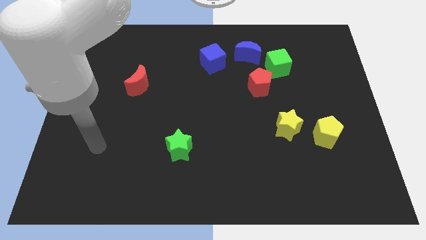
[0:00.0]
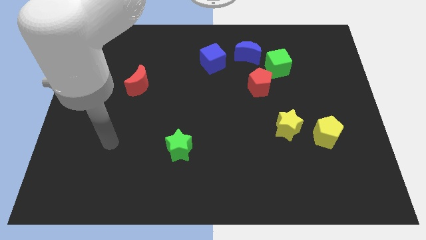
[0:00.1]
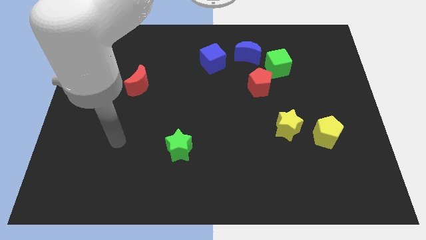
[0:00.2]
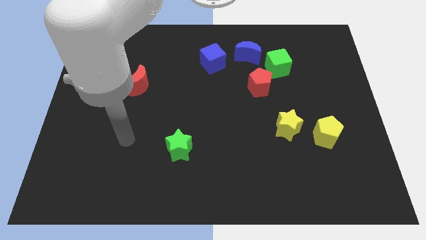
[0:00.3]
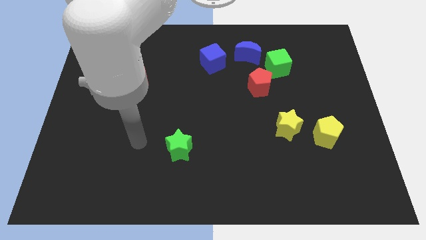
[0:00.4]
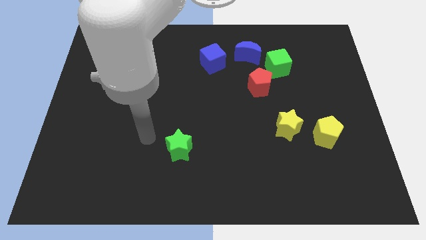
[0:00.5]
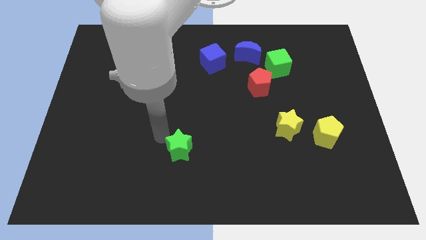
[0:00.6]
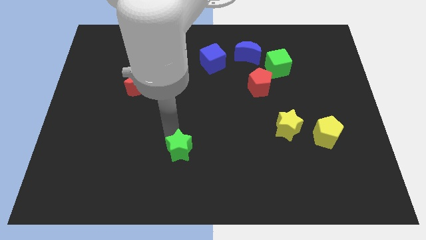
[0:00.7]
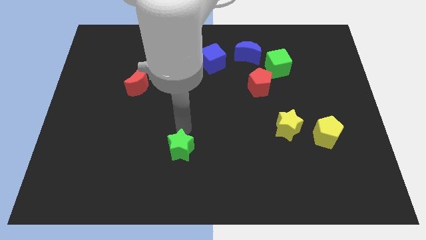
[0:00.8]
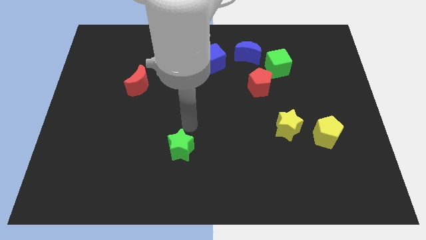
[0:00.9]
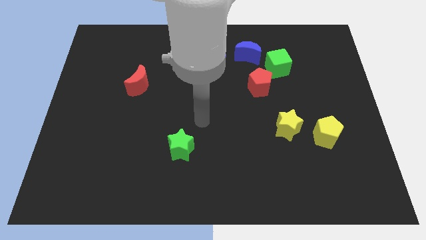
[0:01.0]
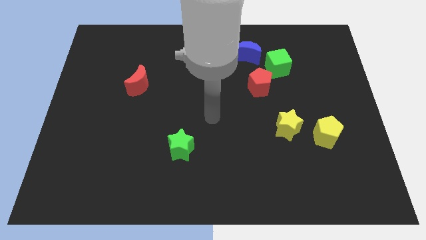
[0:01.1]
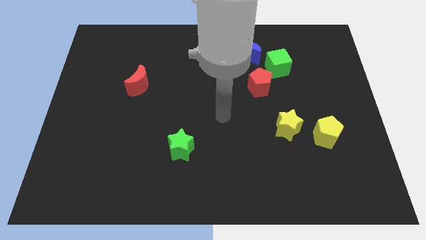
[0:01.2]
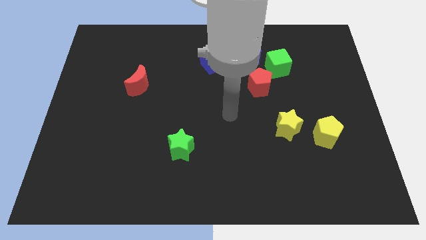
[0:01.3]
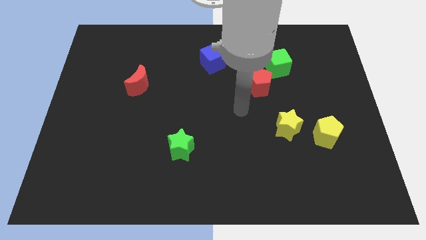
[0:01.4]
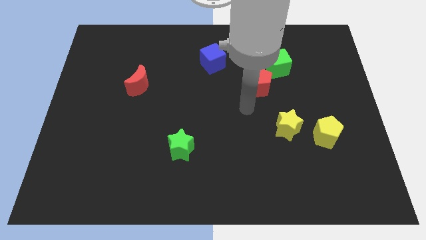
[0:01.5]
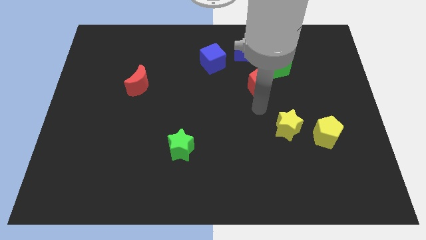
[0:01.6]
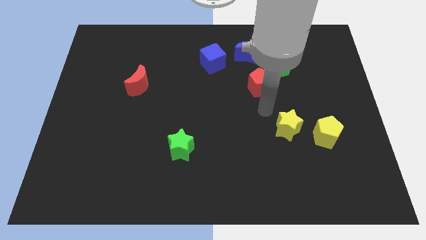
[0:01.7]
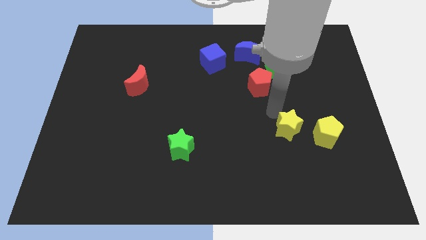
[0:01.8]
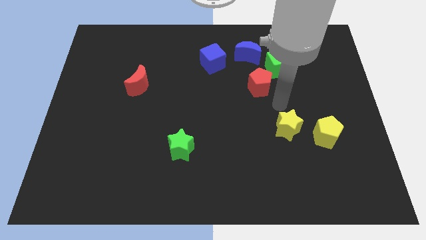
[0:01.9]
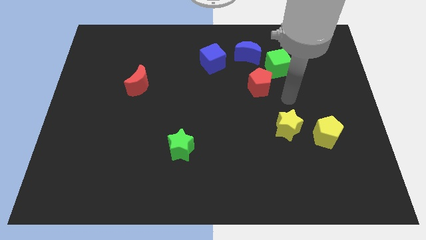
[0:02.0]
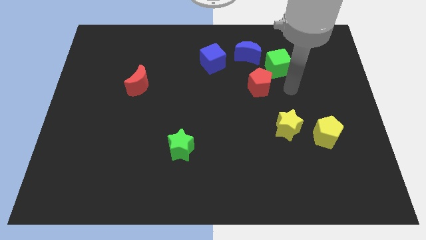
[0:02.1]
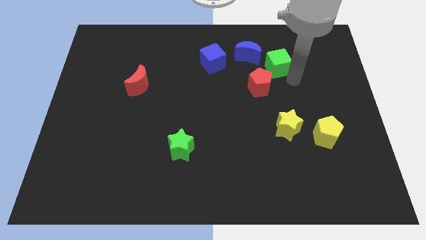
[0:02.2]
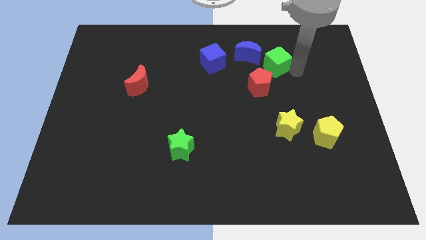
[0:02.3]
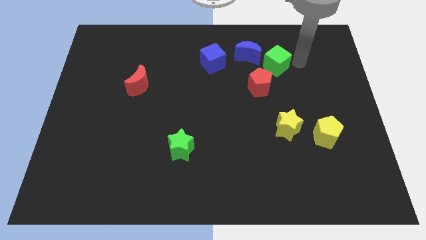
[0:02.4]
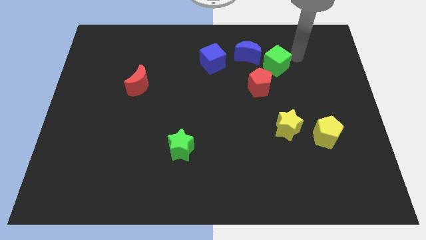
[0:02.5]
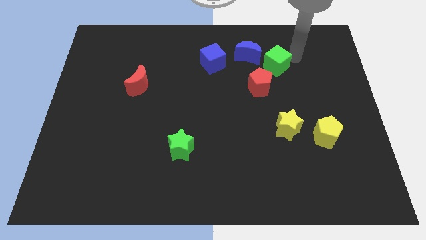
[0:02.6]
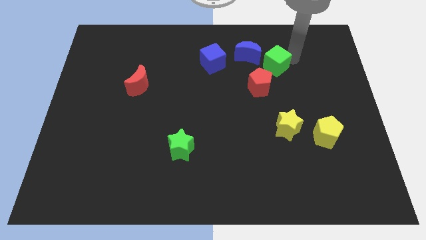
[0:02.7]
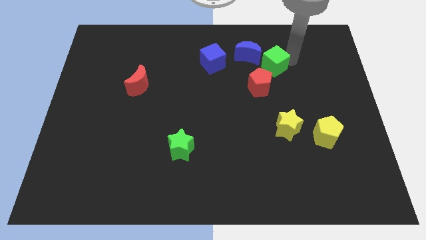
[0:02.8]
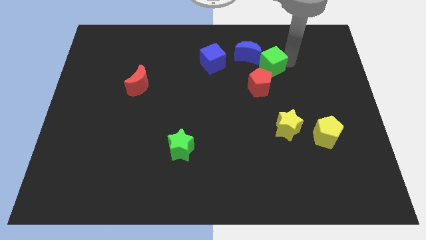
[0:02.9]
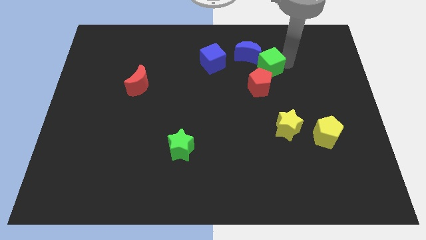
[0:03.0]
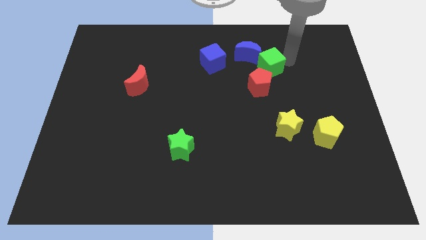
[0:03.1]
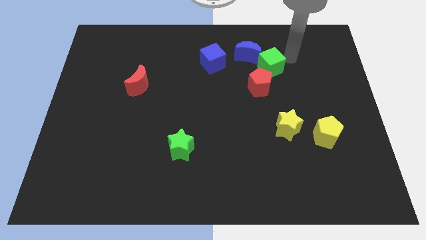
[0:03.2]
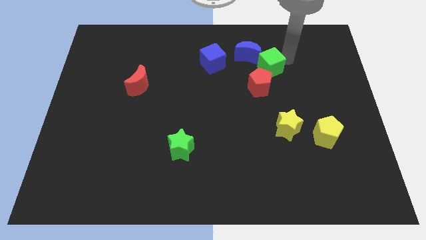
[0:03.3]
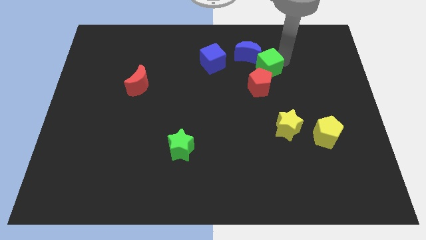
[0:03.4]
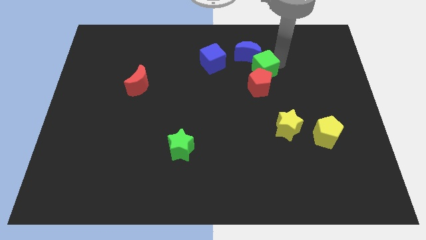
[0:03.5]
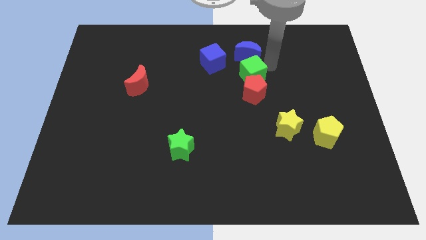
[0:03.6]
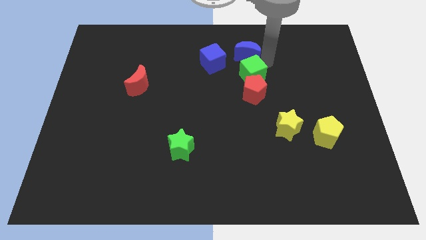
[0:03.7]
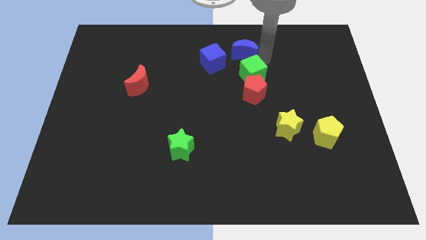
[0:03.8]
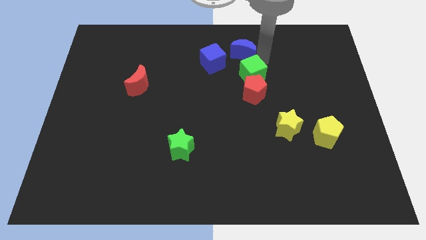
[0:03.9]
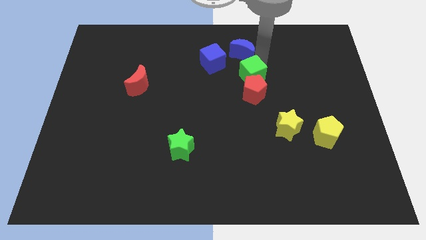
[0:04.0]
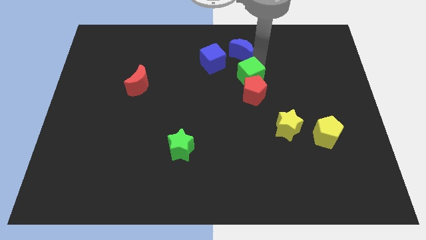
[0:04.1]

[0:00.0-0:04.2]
push the green cube downwards and left a little

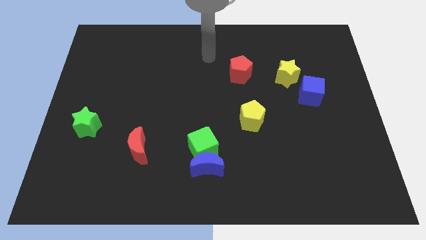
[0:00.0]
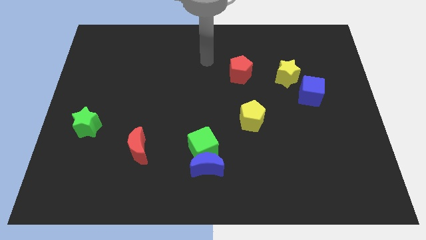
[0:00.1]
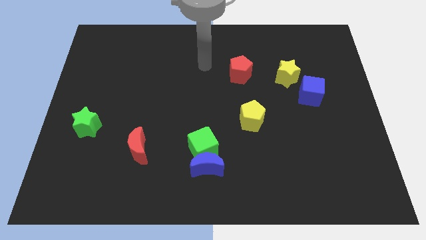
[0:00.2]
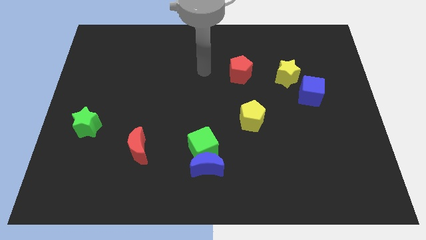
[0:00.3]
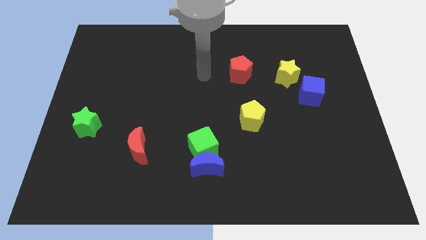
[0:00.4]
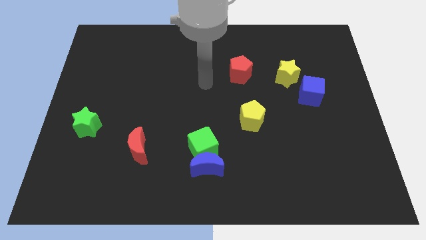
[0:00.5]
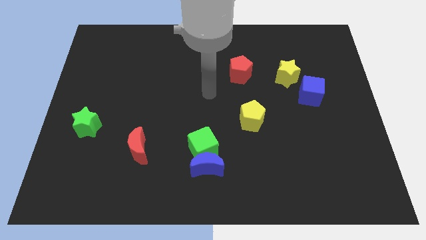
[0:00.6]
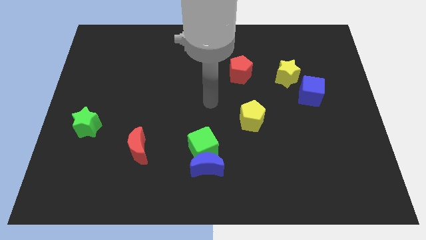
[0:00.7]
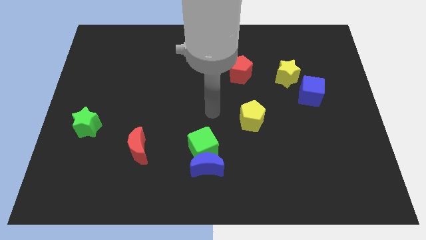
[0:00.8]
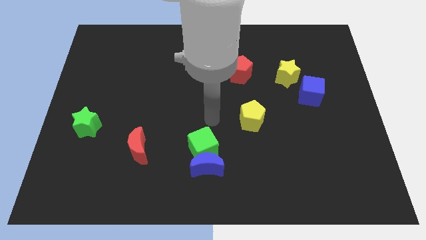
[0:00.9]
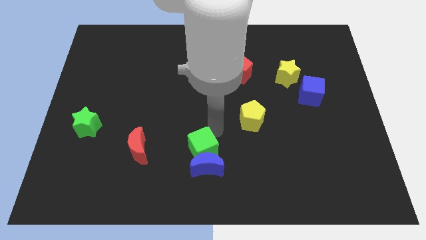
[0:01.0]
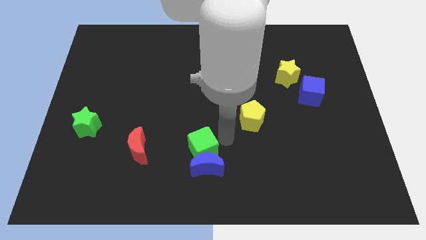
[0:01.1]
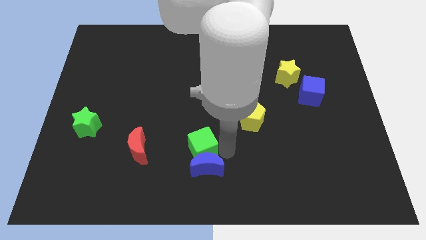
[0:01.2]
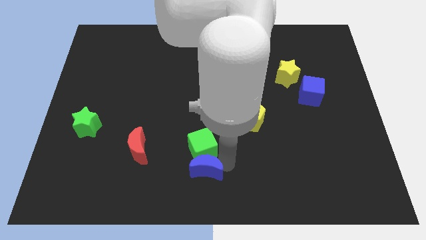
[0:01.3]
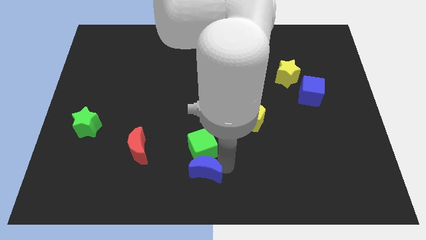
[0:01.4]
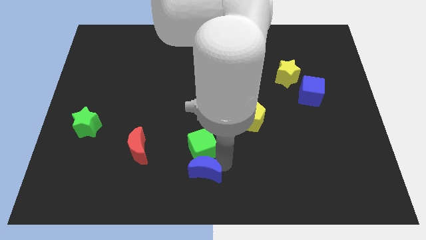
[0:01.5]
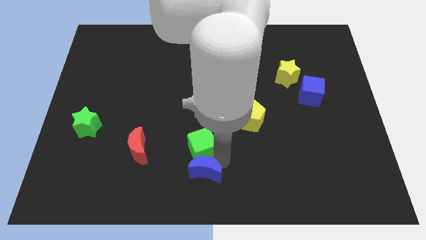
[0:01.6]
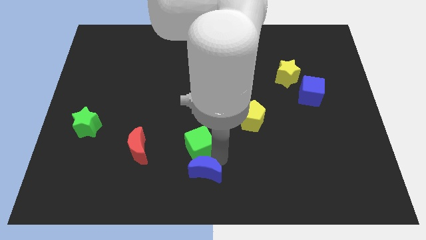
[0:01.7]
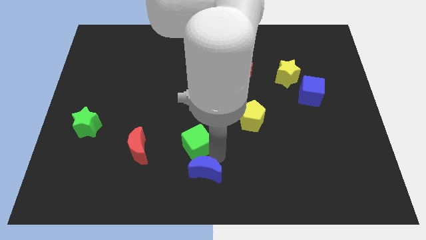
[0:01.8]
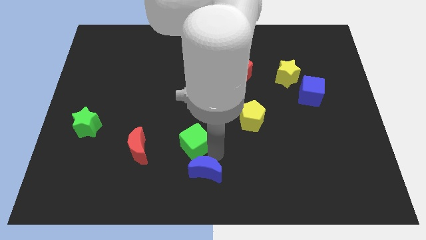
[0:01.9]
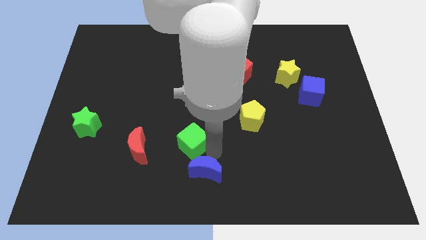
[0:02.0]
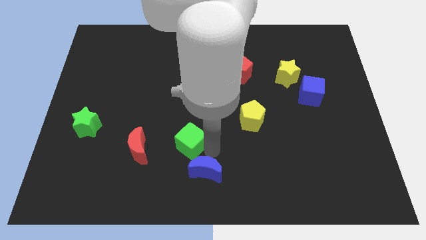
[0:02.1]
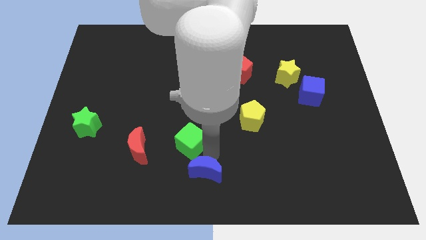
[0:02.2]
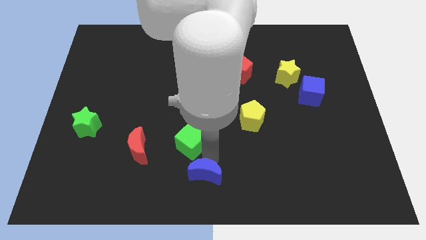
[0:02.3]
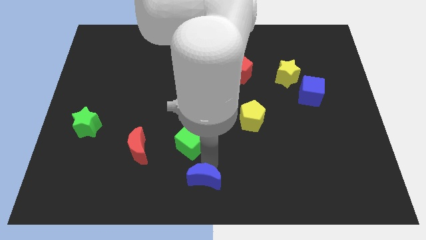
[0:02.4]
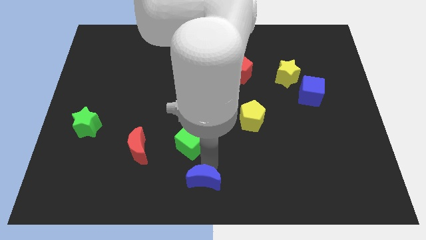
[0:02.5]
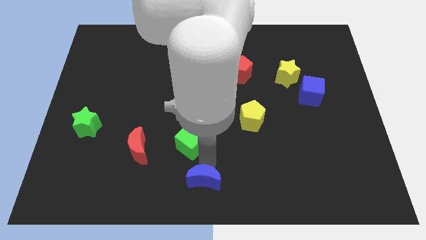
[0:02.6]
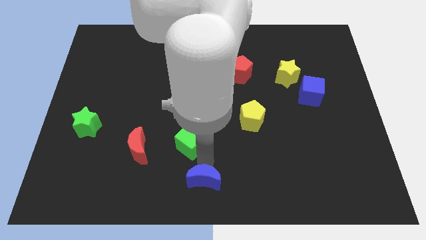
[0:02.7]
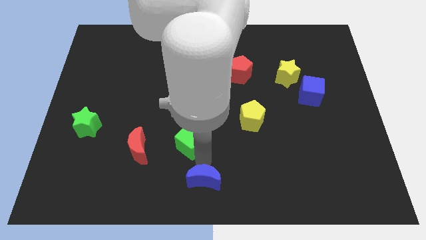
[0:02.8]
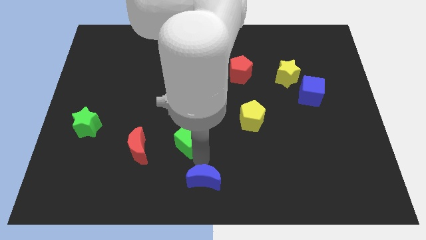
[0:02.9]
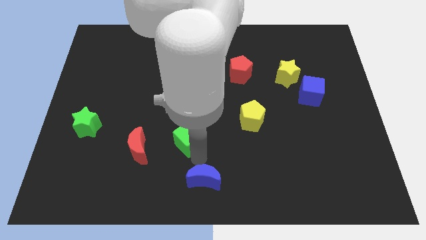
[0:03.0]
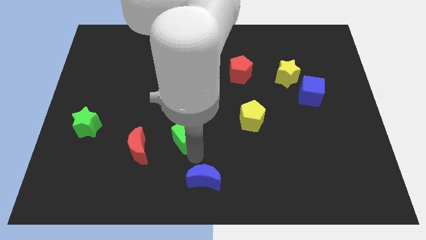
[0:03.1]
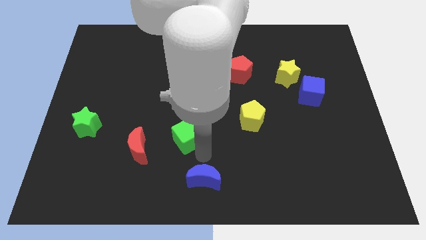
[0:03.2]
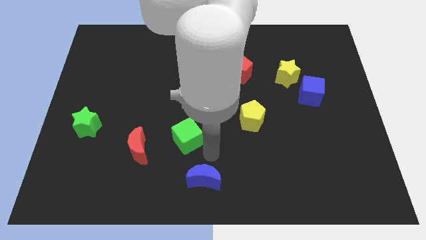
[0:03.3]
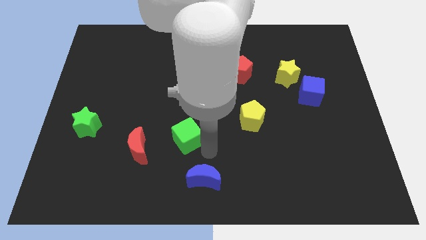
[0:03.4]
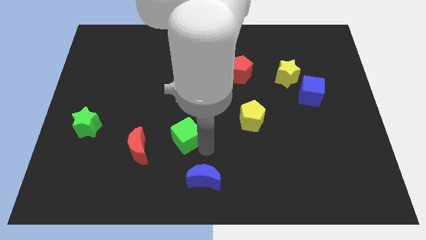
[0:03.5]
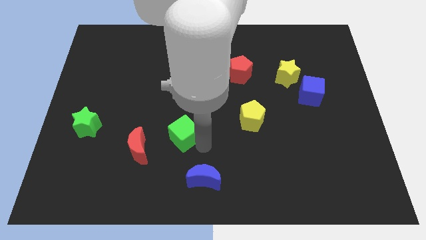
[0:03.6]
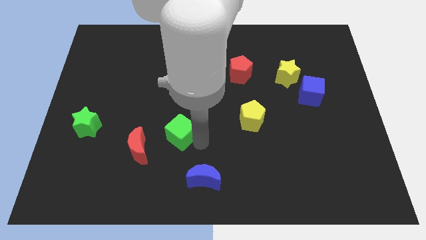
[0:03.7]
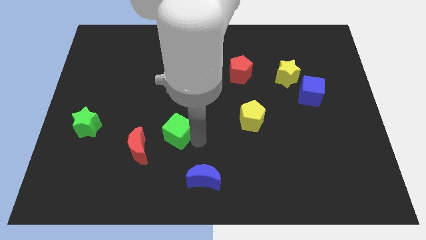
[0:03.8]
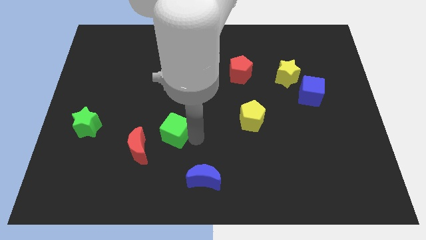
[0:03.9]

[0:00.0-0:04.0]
slide the green cube up and to the left diagonally slightly

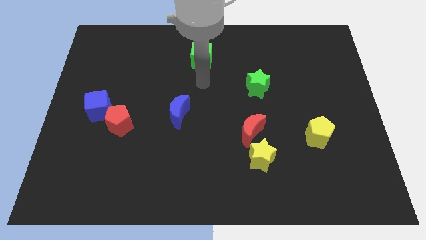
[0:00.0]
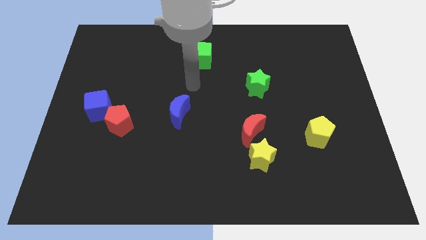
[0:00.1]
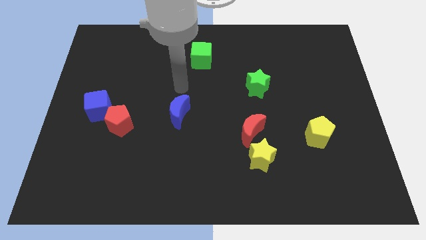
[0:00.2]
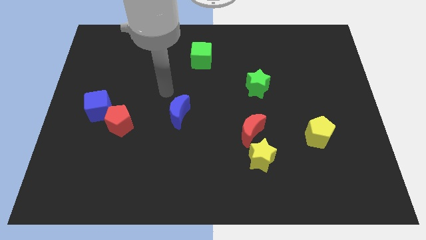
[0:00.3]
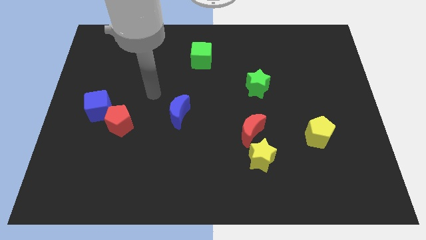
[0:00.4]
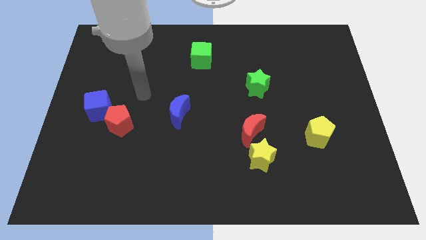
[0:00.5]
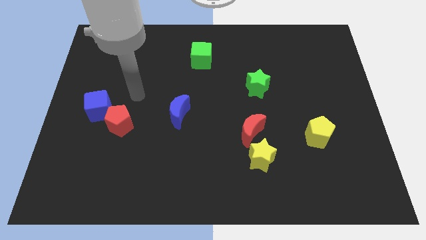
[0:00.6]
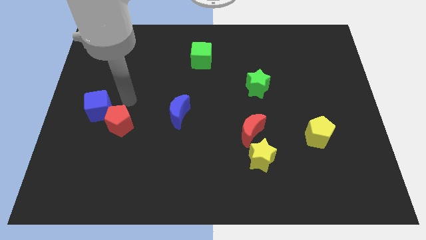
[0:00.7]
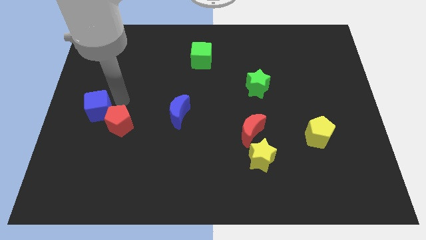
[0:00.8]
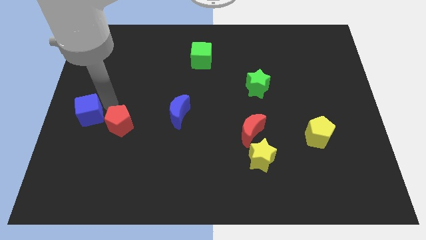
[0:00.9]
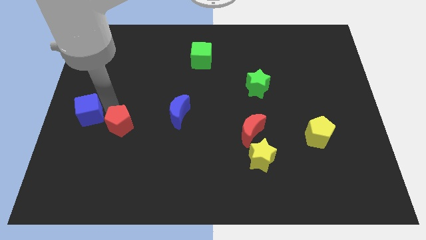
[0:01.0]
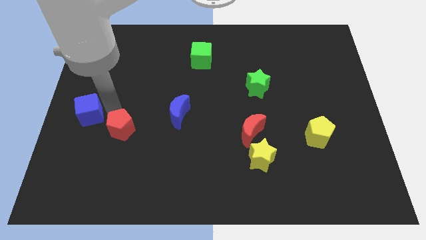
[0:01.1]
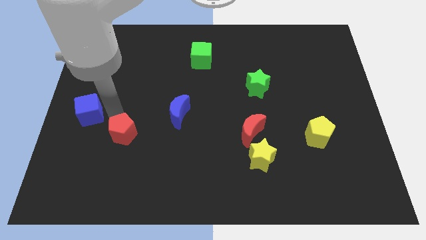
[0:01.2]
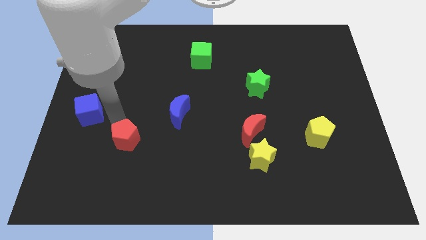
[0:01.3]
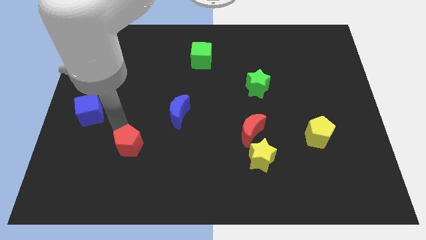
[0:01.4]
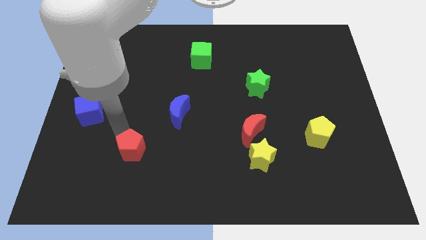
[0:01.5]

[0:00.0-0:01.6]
slightly slide the red pentagon diagonally down and to the right
